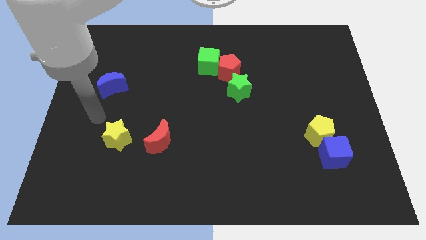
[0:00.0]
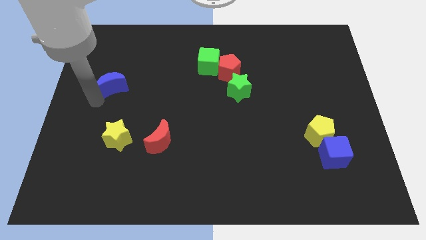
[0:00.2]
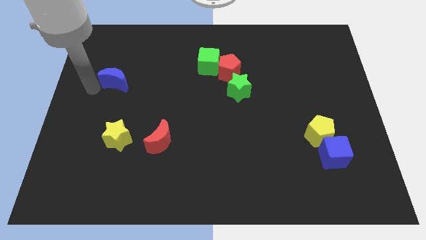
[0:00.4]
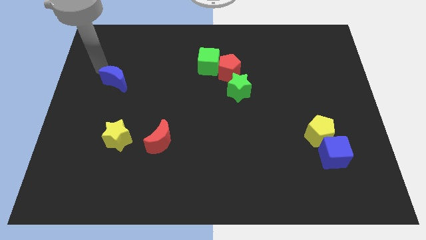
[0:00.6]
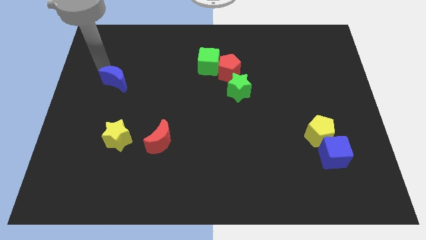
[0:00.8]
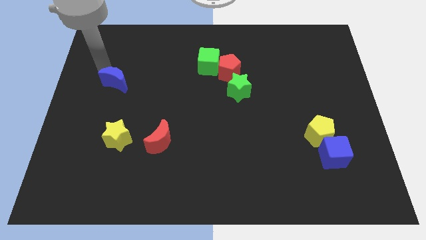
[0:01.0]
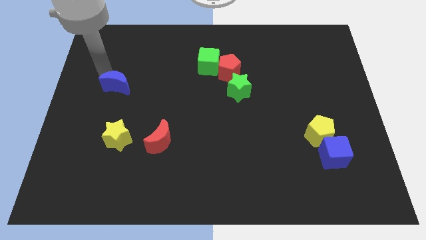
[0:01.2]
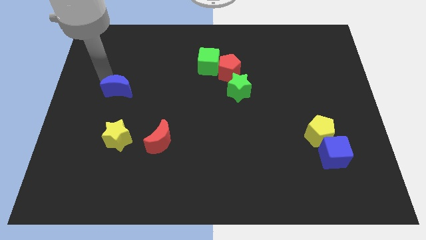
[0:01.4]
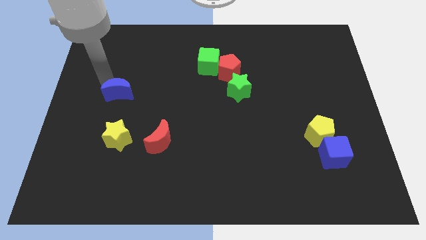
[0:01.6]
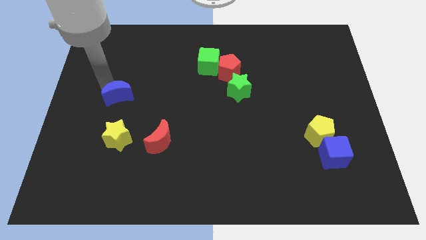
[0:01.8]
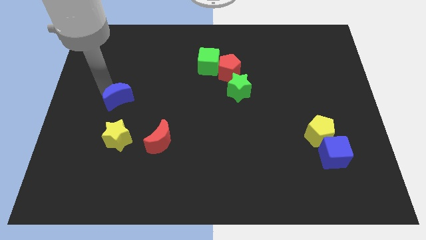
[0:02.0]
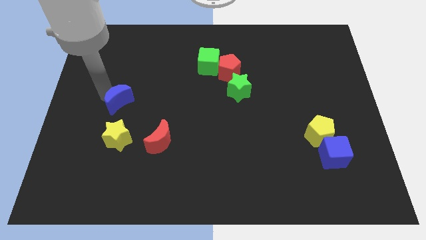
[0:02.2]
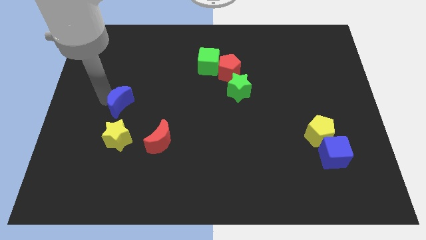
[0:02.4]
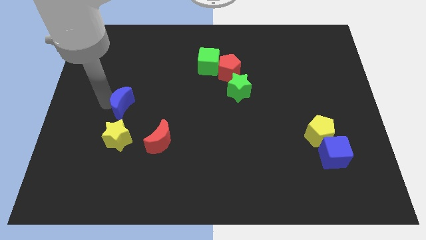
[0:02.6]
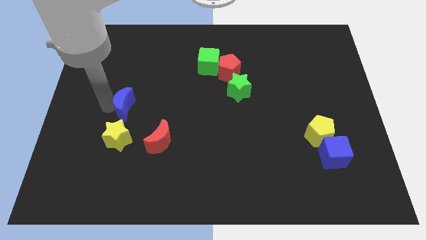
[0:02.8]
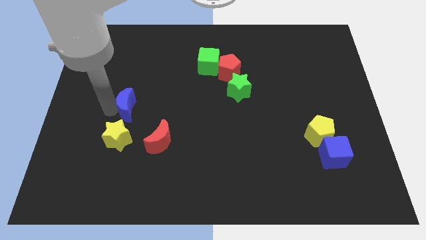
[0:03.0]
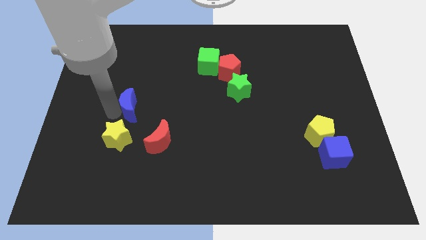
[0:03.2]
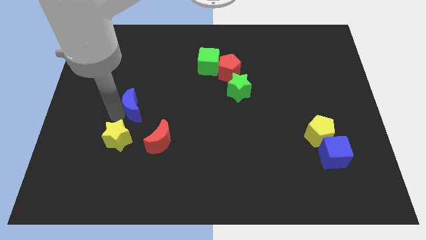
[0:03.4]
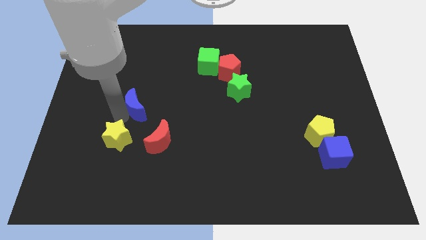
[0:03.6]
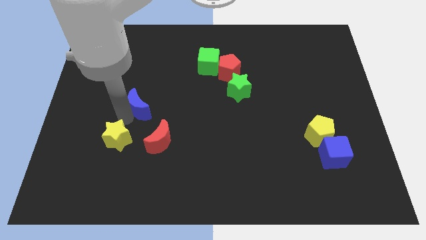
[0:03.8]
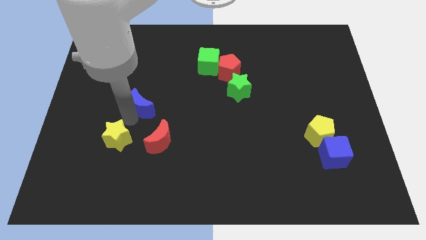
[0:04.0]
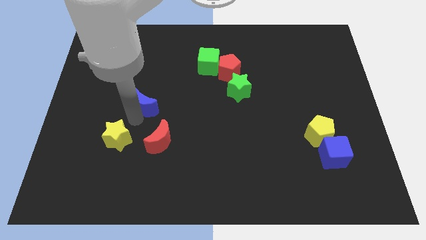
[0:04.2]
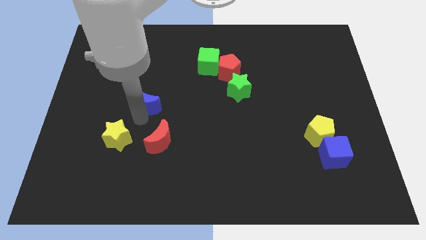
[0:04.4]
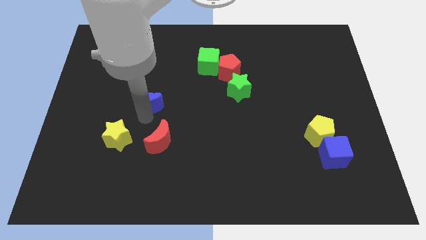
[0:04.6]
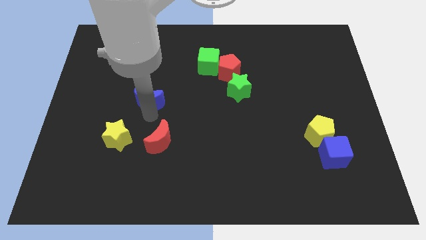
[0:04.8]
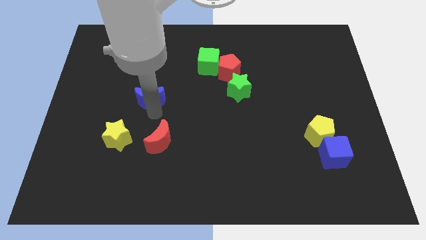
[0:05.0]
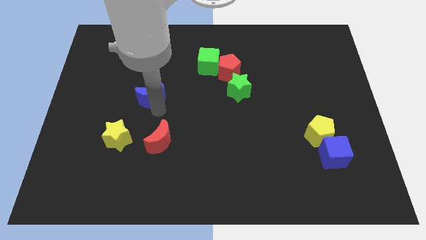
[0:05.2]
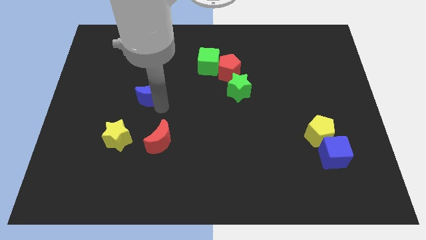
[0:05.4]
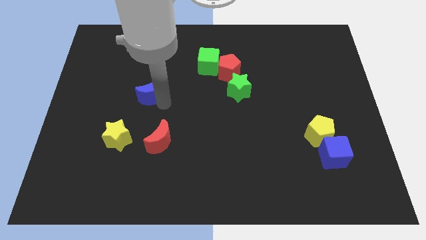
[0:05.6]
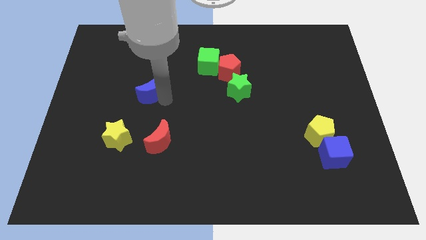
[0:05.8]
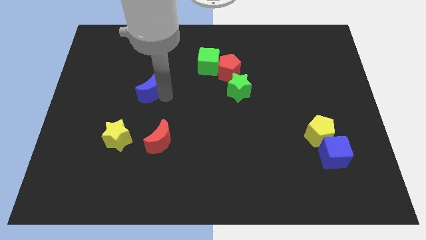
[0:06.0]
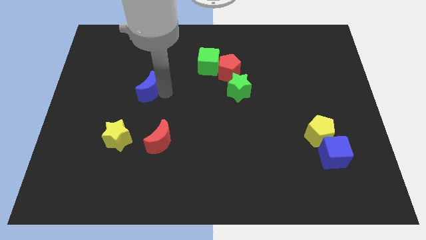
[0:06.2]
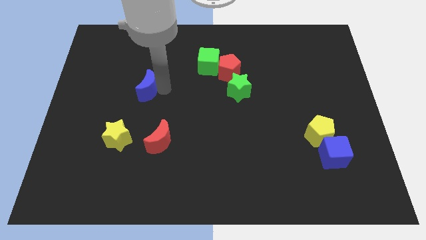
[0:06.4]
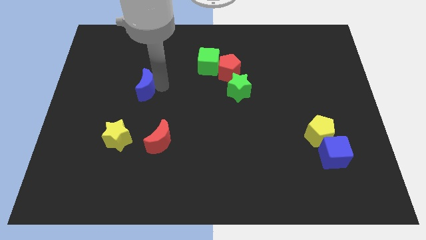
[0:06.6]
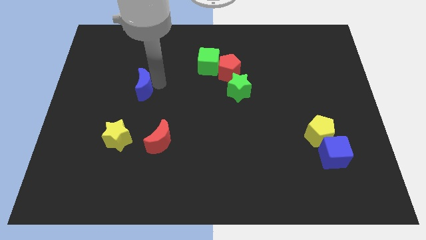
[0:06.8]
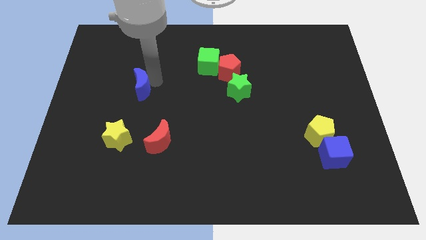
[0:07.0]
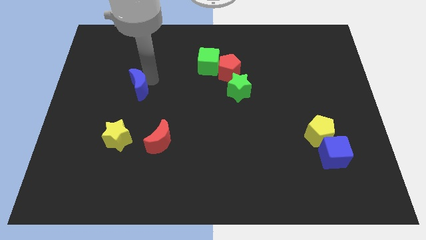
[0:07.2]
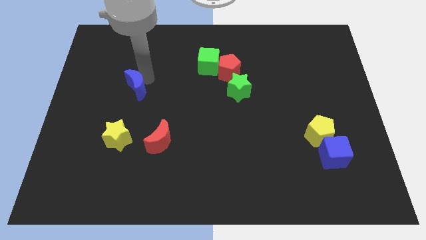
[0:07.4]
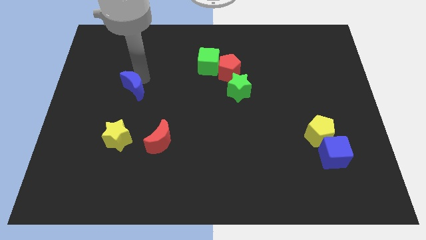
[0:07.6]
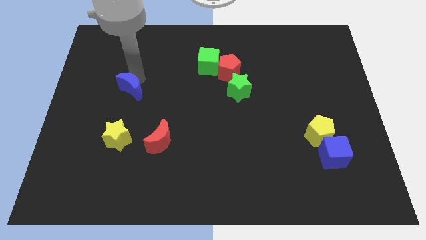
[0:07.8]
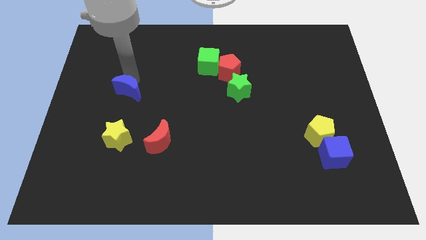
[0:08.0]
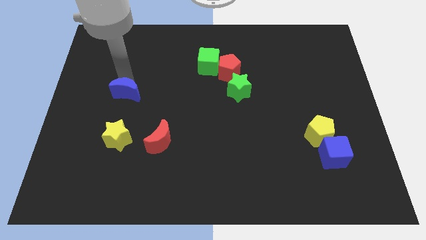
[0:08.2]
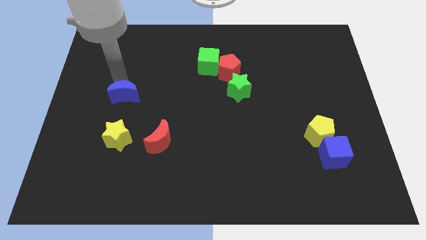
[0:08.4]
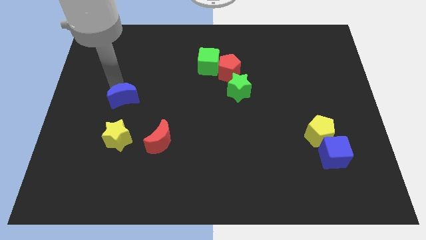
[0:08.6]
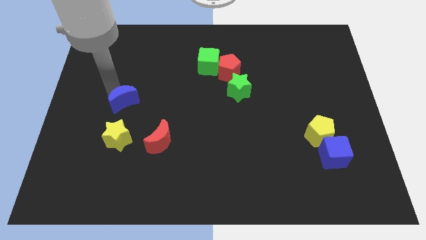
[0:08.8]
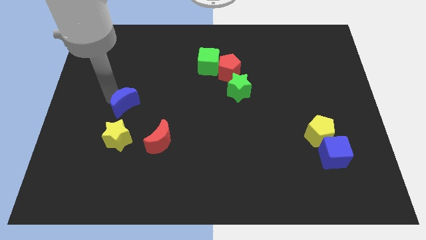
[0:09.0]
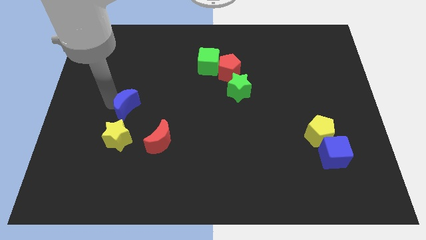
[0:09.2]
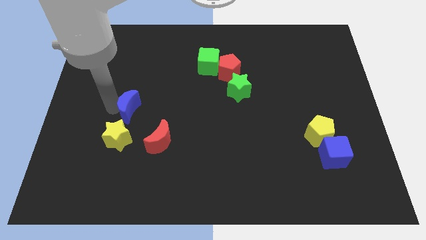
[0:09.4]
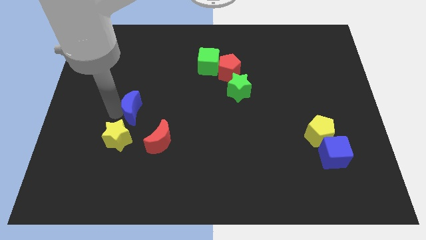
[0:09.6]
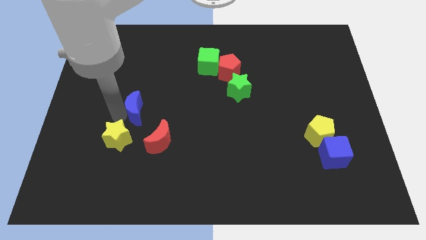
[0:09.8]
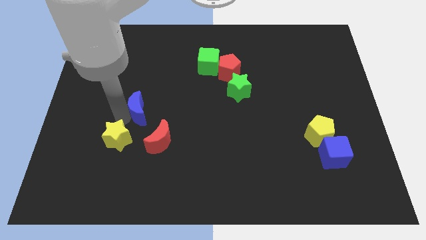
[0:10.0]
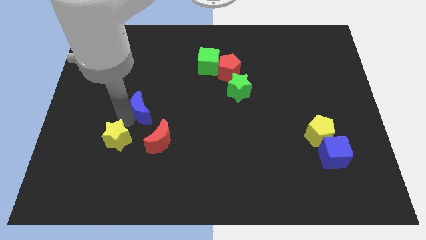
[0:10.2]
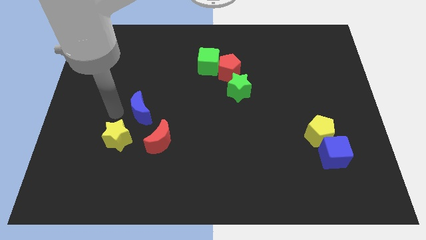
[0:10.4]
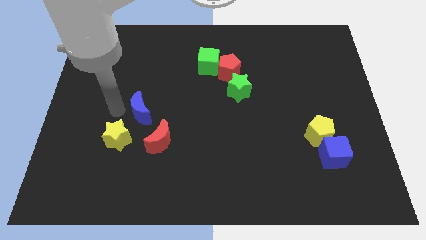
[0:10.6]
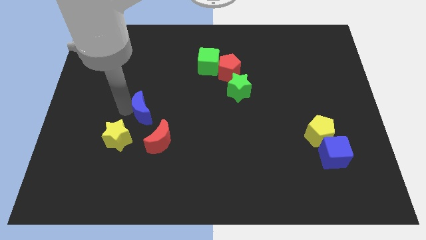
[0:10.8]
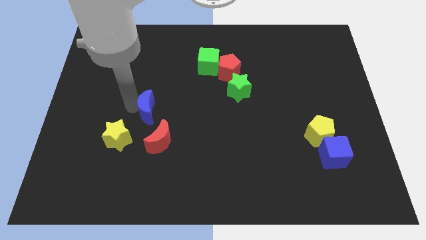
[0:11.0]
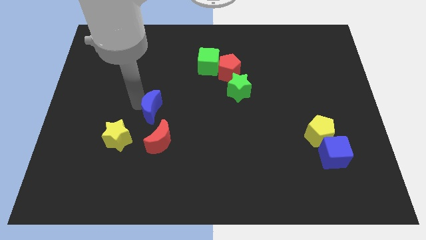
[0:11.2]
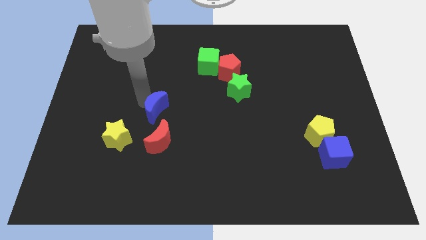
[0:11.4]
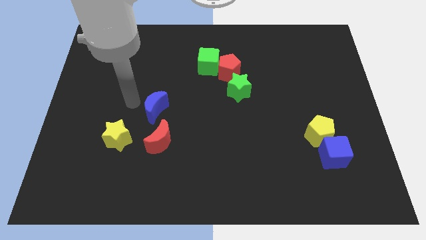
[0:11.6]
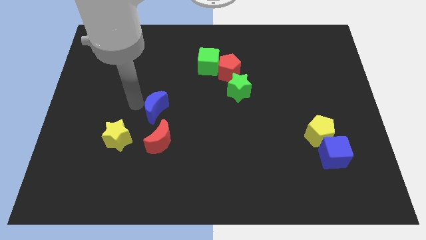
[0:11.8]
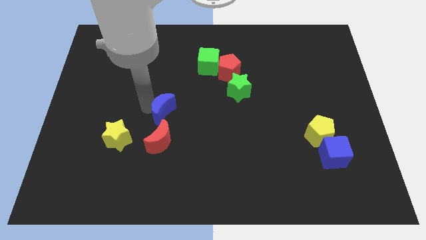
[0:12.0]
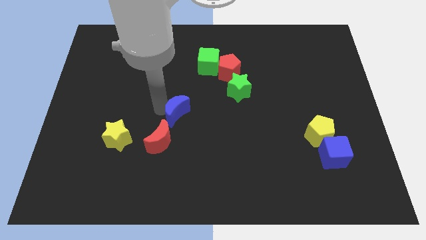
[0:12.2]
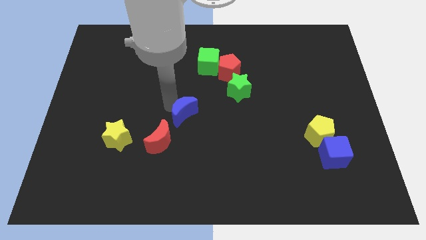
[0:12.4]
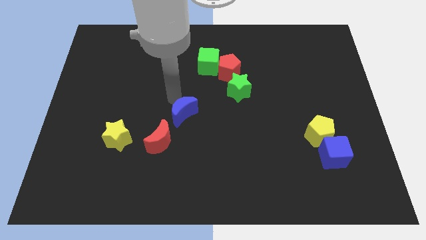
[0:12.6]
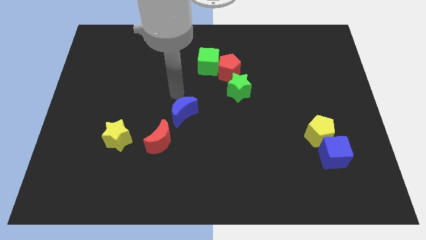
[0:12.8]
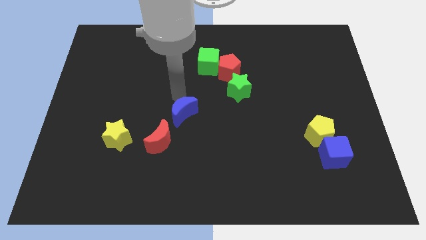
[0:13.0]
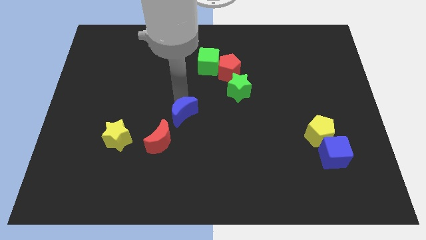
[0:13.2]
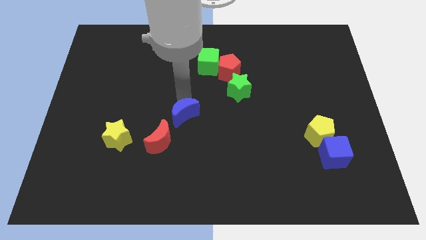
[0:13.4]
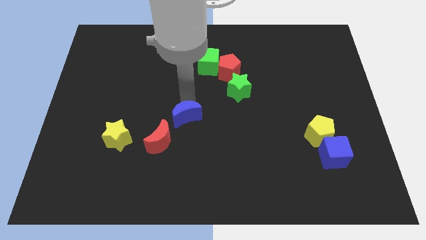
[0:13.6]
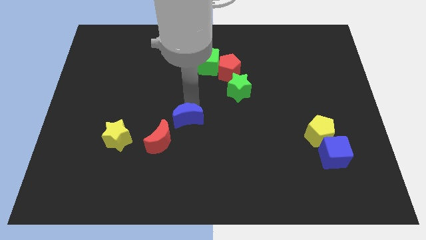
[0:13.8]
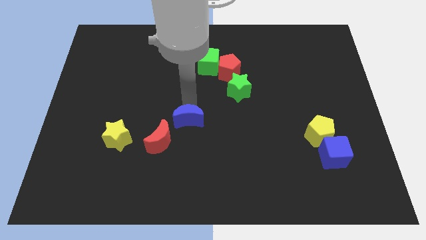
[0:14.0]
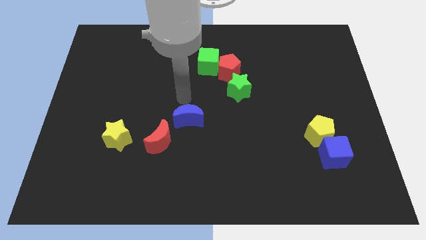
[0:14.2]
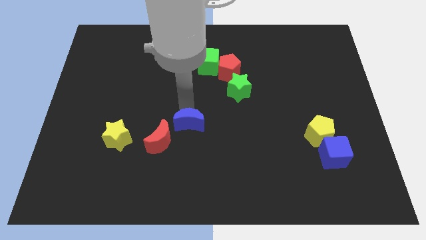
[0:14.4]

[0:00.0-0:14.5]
move the blue moon down and to the right

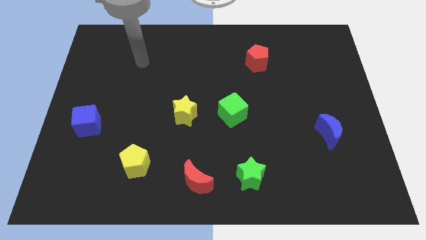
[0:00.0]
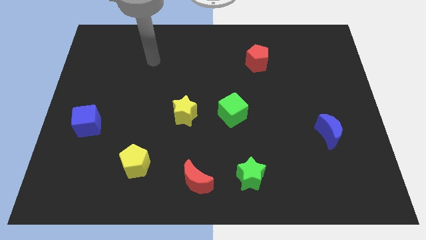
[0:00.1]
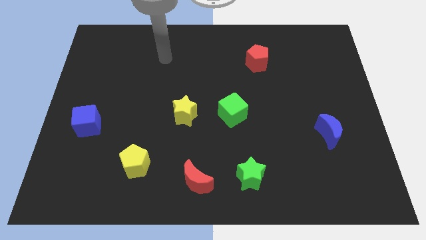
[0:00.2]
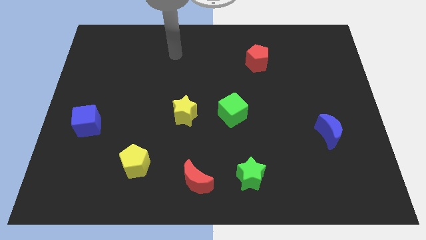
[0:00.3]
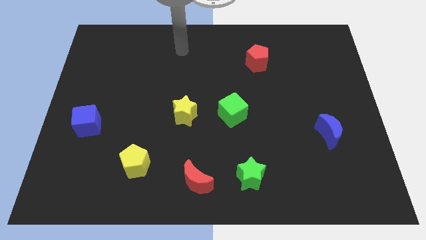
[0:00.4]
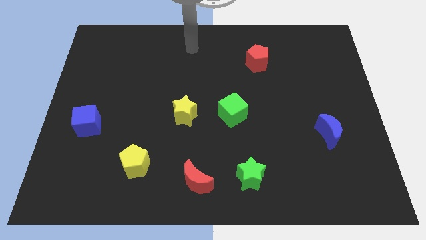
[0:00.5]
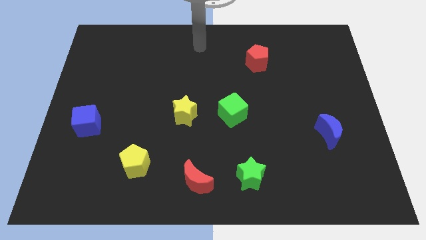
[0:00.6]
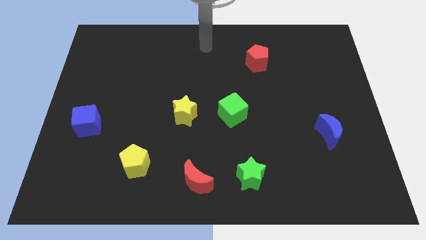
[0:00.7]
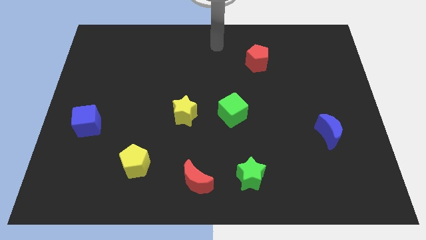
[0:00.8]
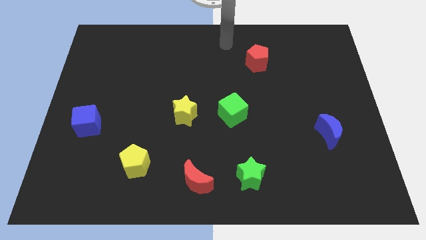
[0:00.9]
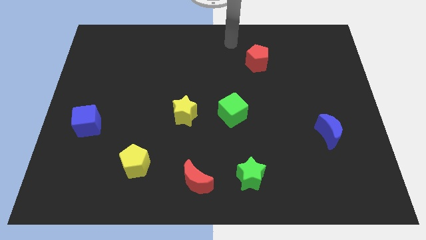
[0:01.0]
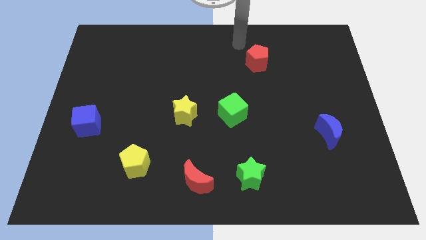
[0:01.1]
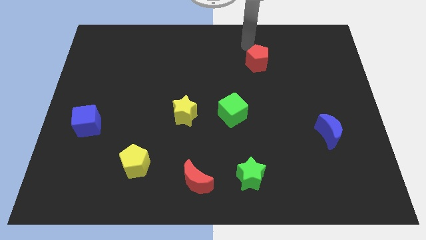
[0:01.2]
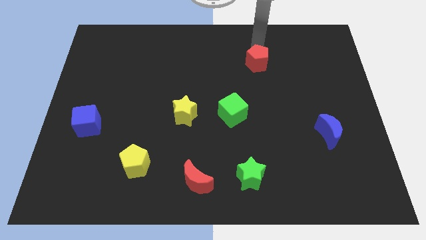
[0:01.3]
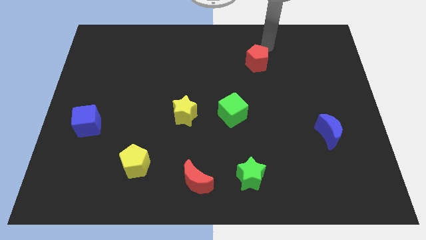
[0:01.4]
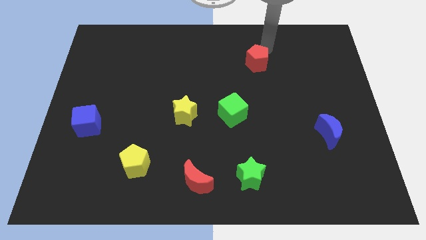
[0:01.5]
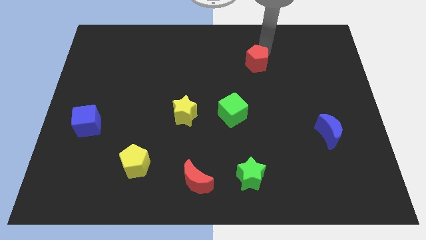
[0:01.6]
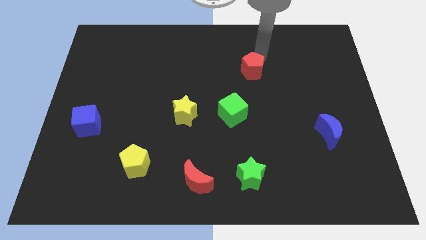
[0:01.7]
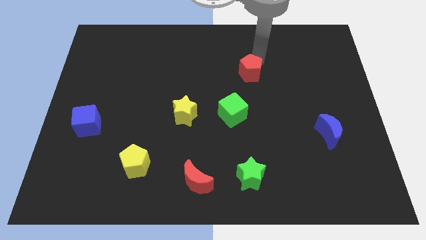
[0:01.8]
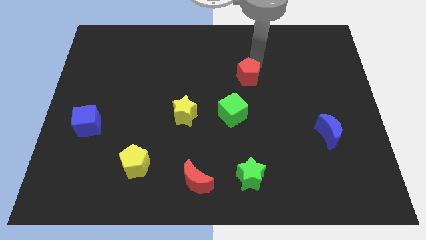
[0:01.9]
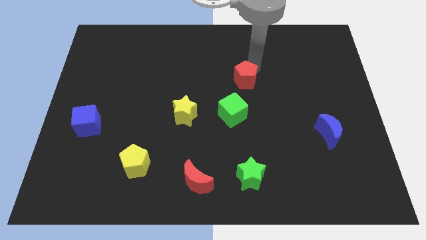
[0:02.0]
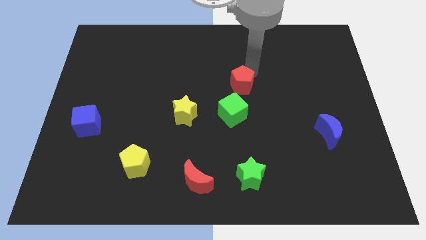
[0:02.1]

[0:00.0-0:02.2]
slide the red pentagon downwards and left diagonally slightly
